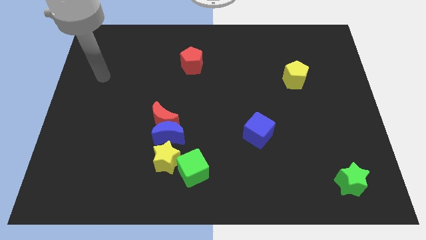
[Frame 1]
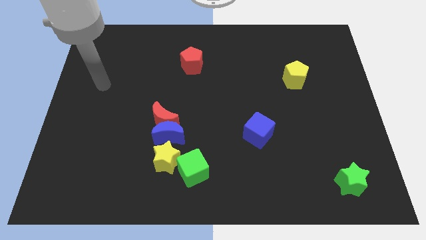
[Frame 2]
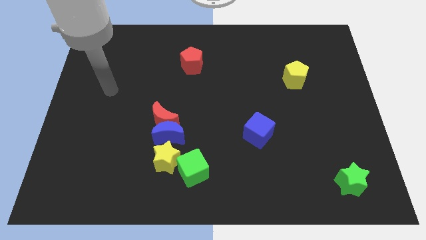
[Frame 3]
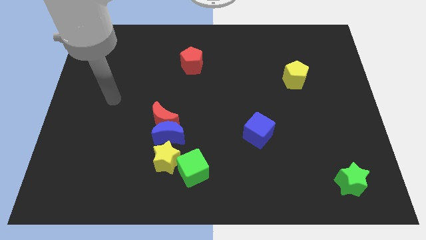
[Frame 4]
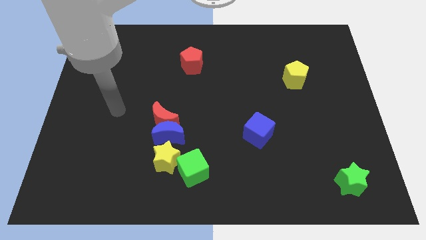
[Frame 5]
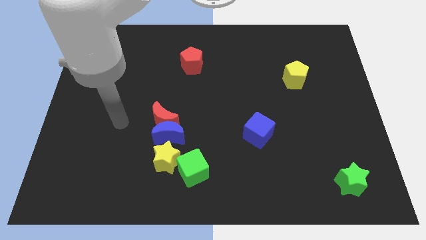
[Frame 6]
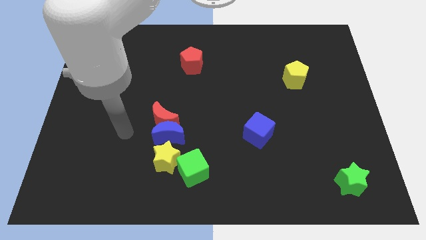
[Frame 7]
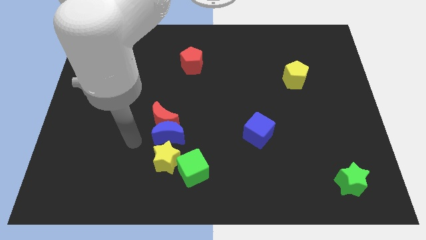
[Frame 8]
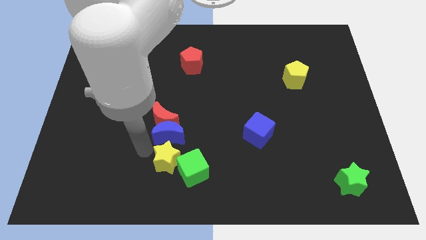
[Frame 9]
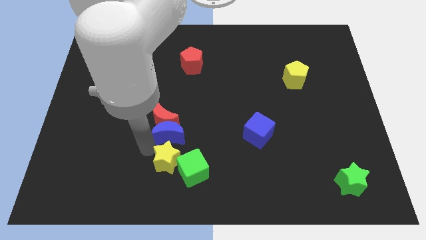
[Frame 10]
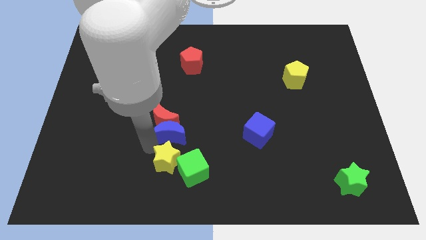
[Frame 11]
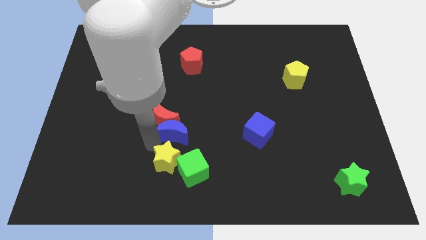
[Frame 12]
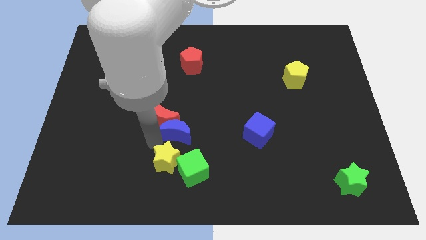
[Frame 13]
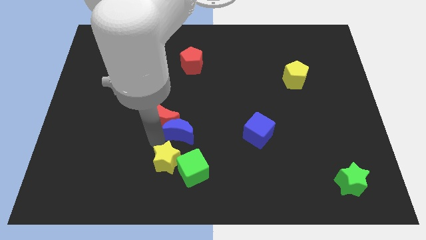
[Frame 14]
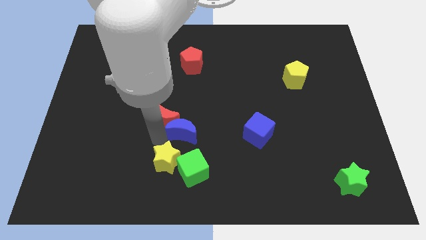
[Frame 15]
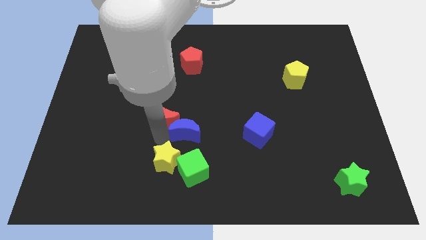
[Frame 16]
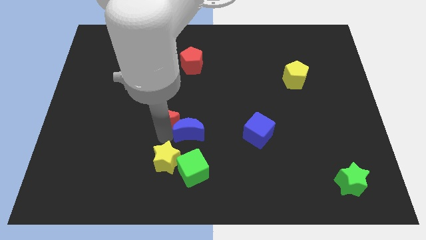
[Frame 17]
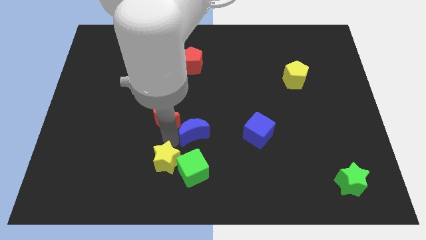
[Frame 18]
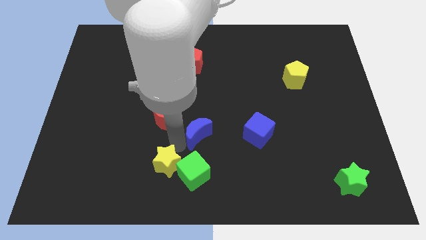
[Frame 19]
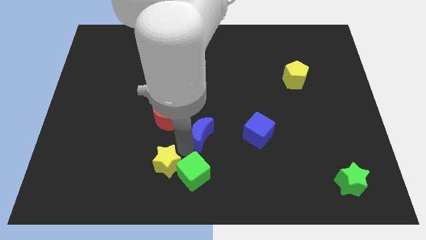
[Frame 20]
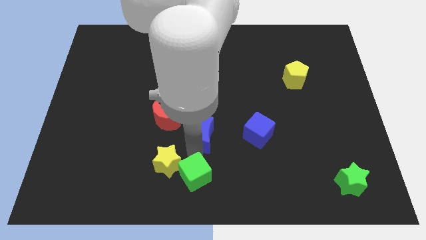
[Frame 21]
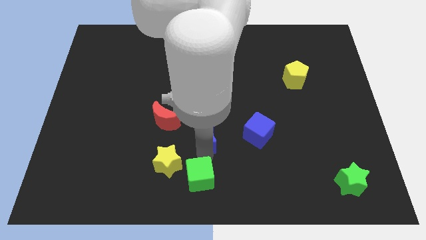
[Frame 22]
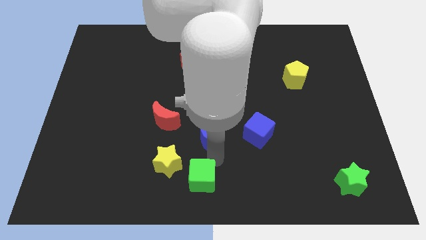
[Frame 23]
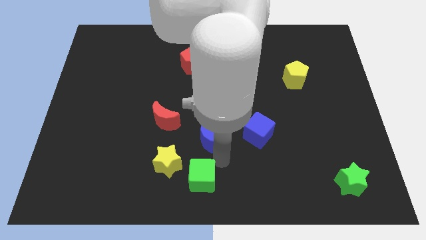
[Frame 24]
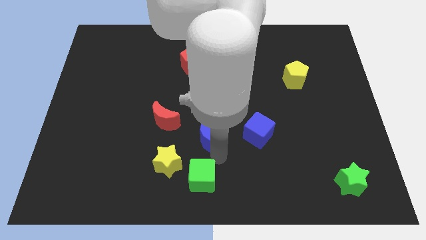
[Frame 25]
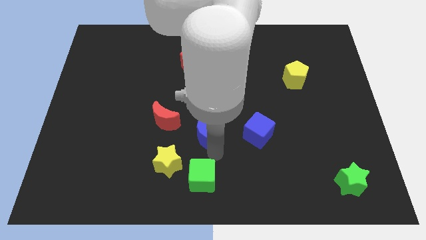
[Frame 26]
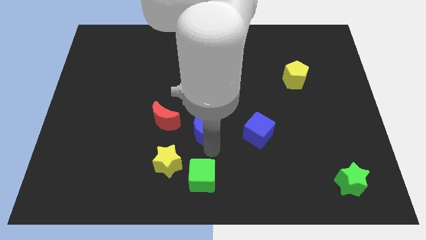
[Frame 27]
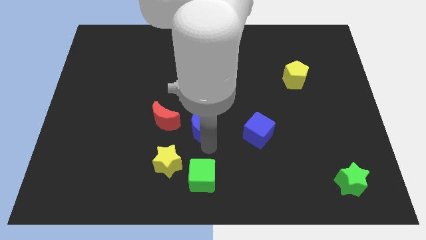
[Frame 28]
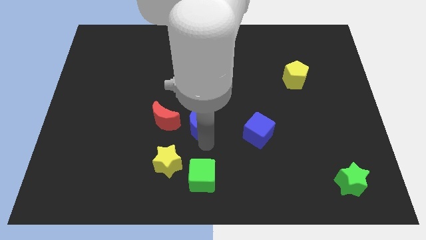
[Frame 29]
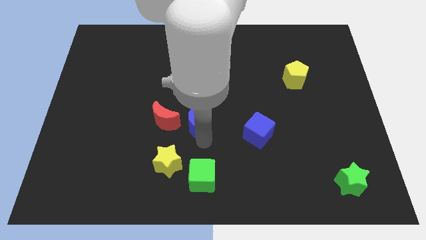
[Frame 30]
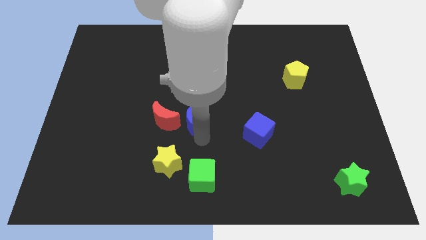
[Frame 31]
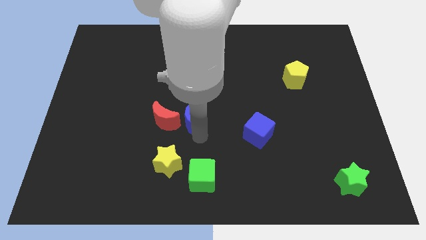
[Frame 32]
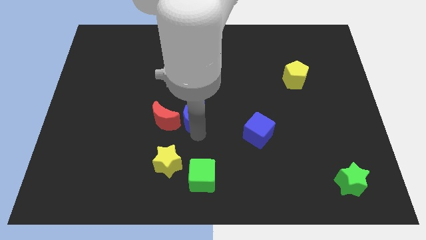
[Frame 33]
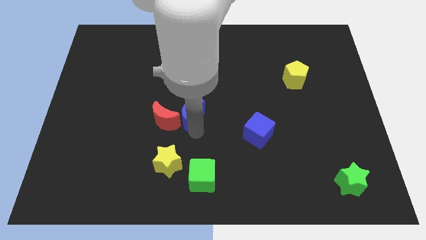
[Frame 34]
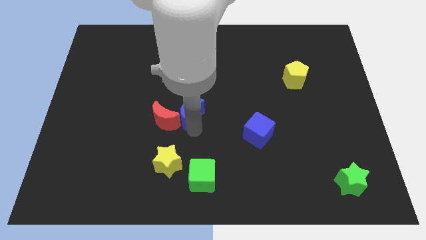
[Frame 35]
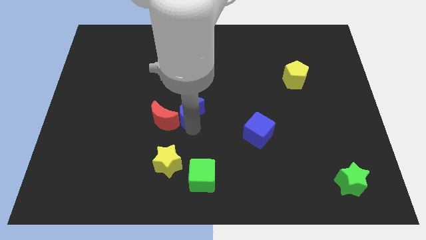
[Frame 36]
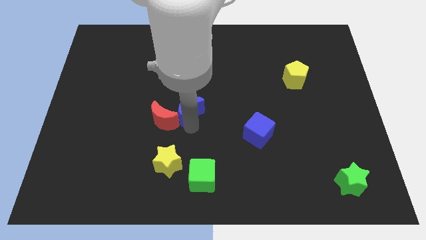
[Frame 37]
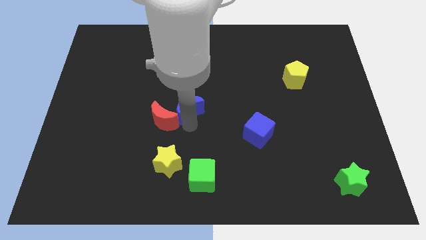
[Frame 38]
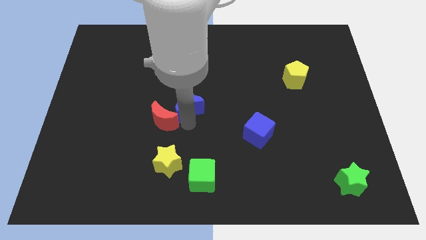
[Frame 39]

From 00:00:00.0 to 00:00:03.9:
slightly move the blue moon upwards

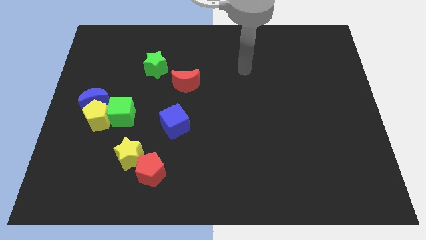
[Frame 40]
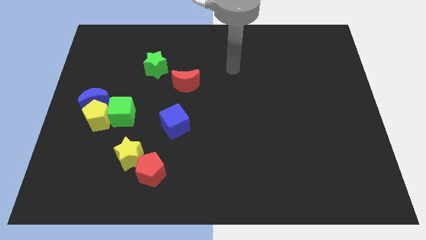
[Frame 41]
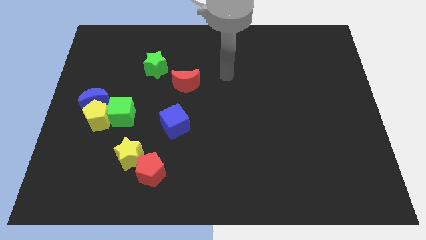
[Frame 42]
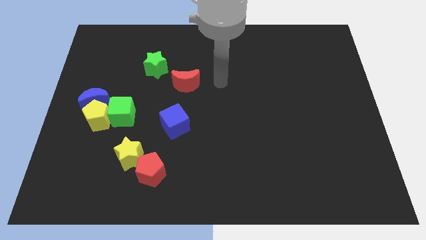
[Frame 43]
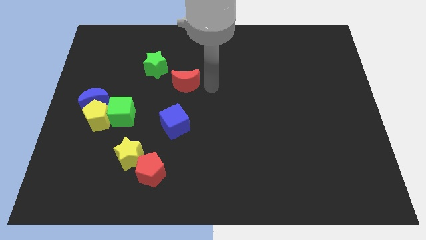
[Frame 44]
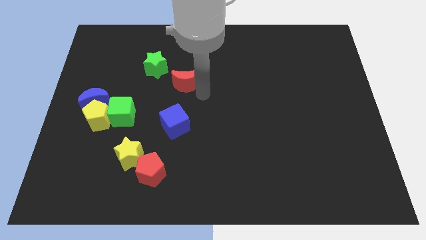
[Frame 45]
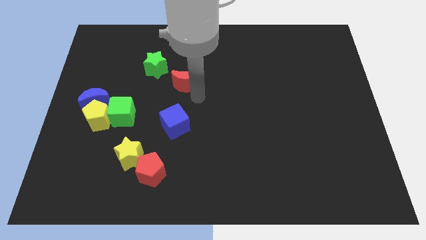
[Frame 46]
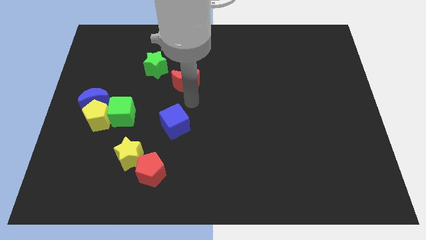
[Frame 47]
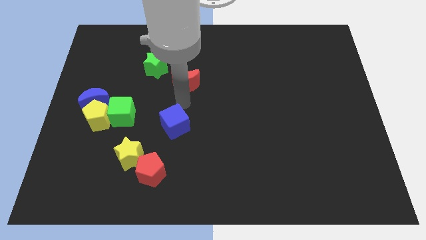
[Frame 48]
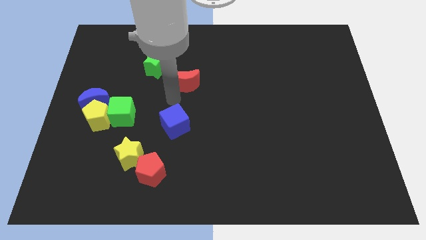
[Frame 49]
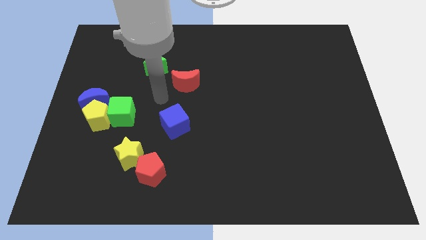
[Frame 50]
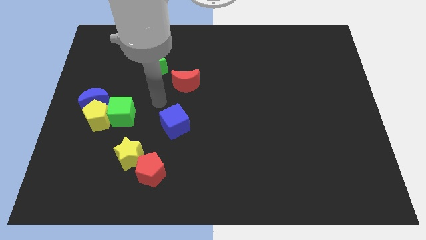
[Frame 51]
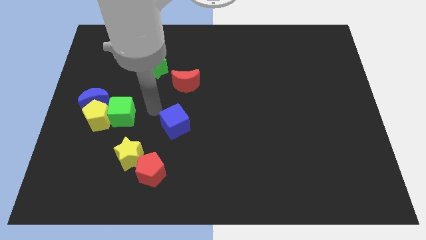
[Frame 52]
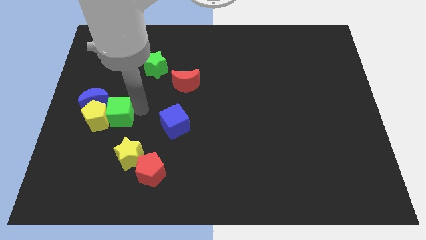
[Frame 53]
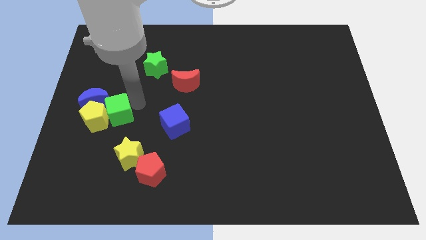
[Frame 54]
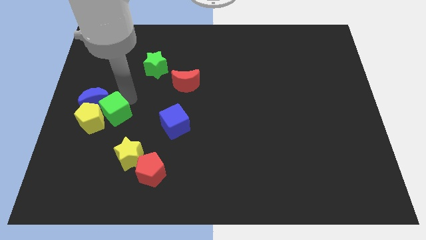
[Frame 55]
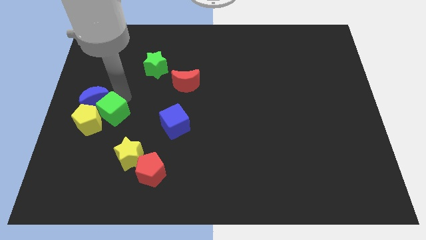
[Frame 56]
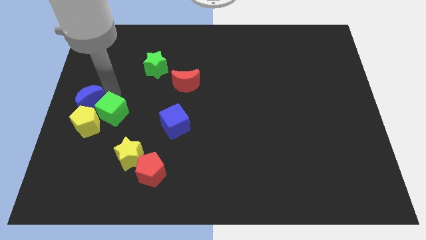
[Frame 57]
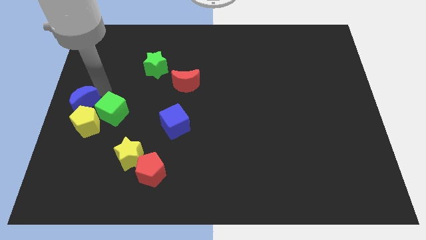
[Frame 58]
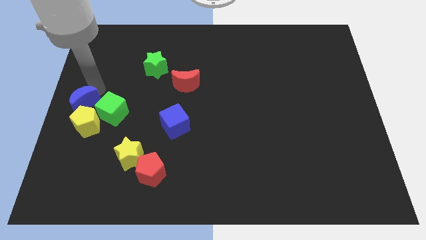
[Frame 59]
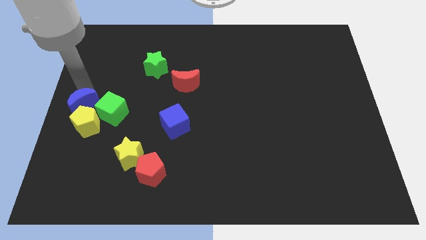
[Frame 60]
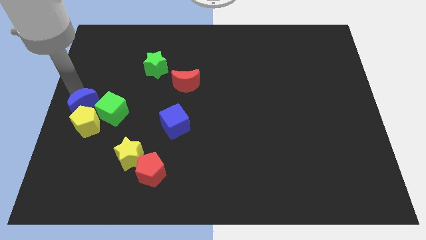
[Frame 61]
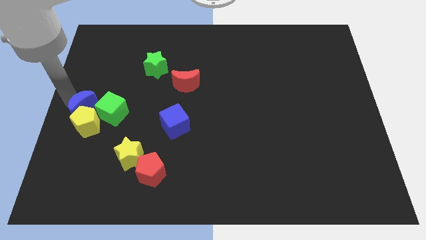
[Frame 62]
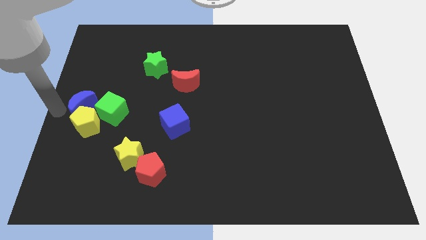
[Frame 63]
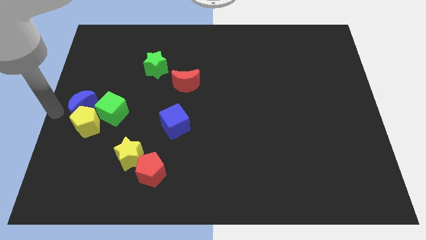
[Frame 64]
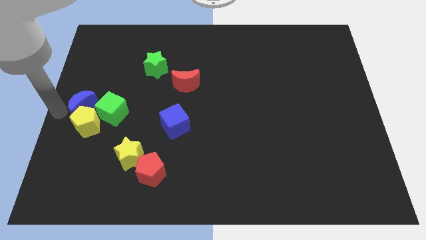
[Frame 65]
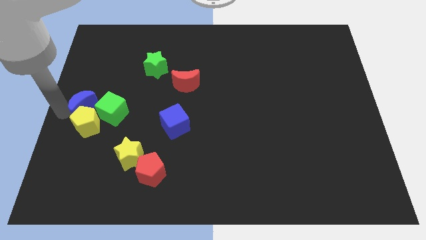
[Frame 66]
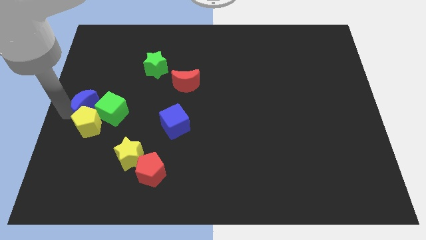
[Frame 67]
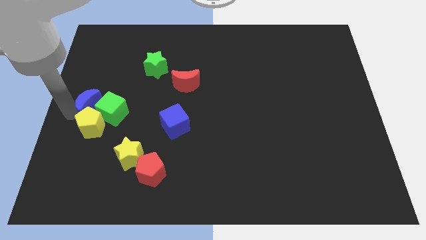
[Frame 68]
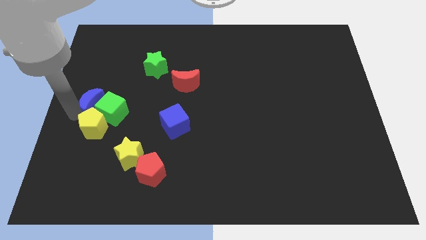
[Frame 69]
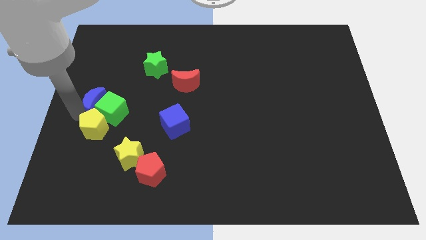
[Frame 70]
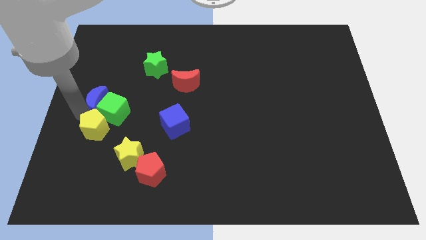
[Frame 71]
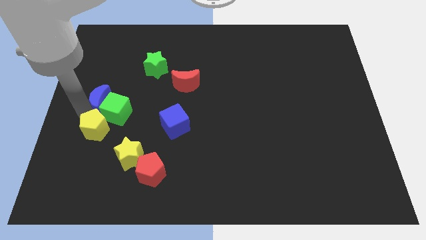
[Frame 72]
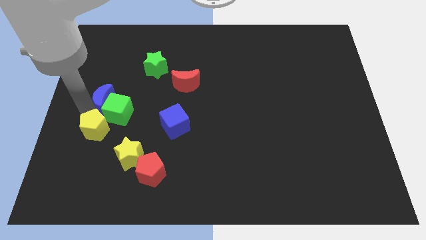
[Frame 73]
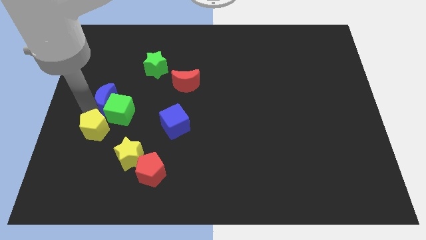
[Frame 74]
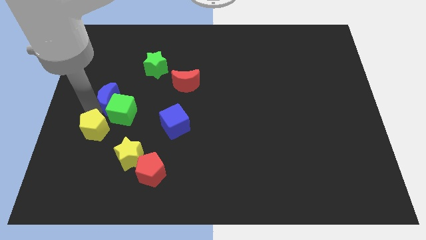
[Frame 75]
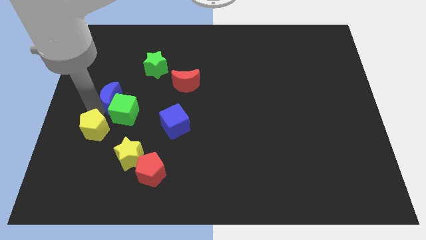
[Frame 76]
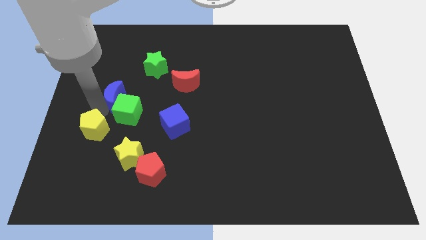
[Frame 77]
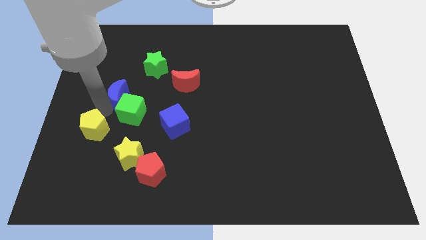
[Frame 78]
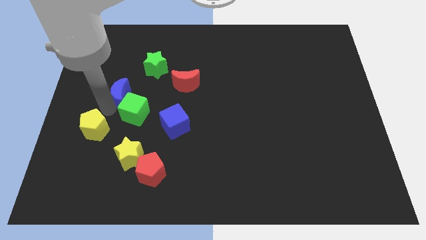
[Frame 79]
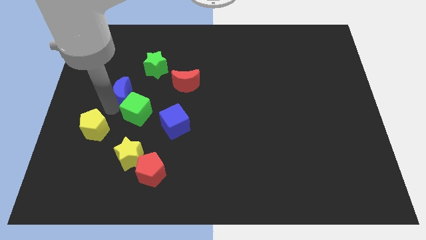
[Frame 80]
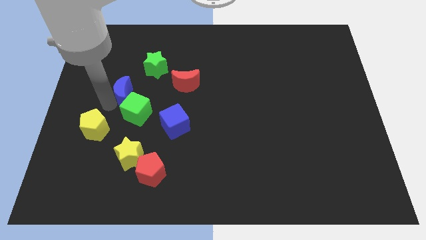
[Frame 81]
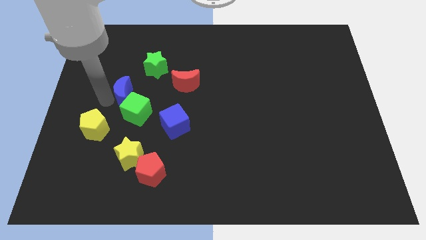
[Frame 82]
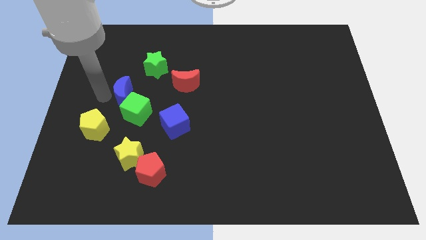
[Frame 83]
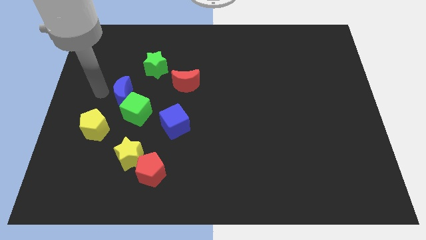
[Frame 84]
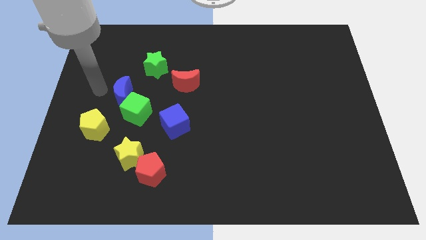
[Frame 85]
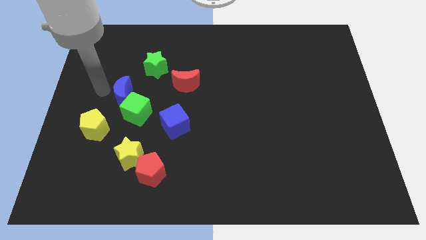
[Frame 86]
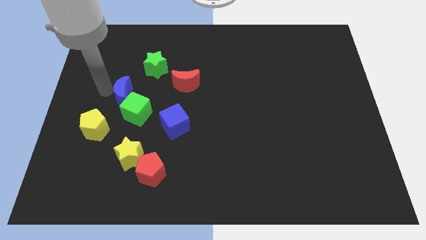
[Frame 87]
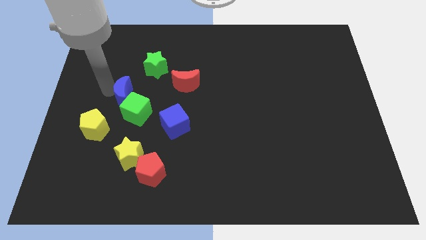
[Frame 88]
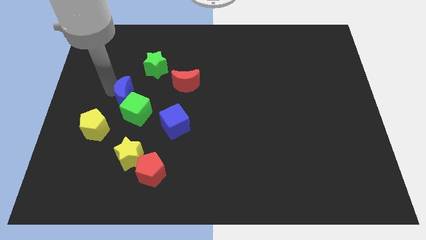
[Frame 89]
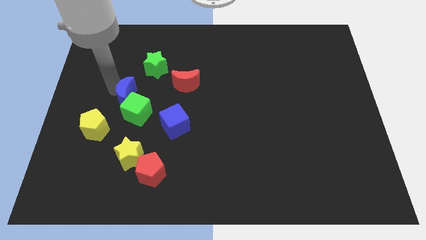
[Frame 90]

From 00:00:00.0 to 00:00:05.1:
push the blue moon to the right a little bit
